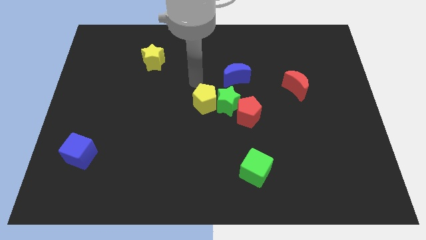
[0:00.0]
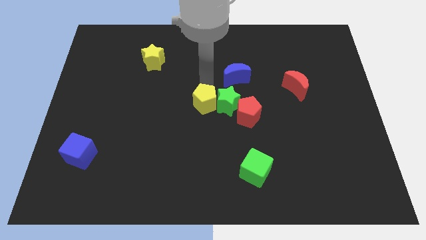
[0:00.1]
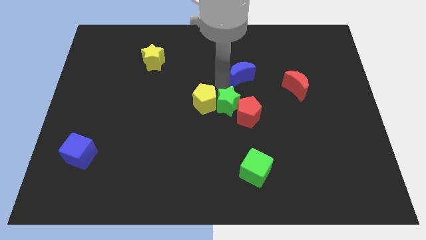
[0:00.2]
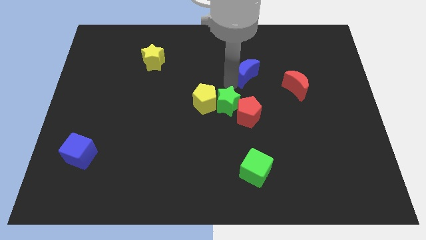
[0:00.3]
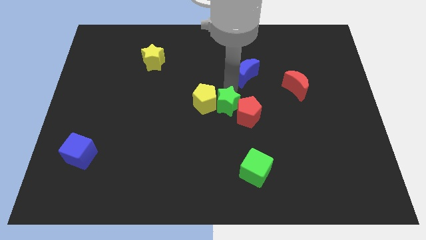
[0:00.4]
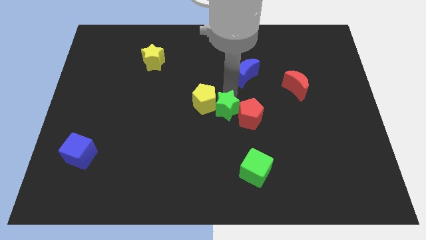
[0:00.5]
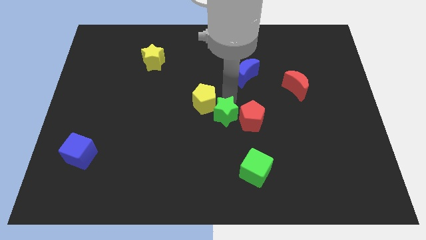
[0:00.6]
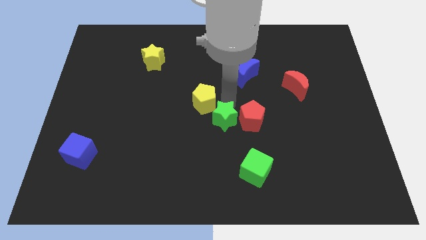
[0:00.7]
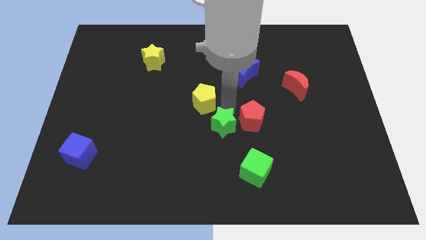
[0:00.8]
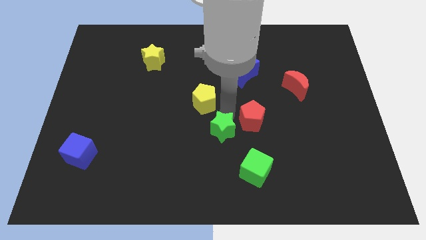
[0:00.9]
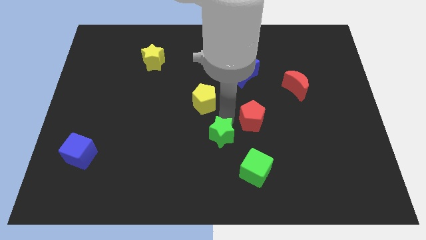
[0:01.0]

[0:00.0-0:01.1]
separate the green star from the group of blocks

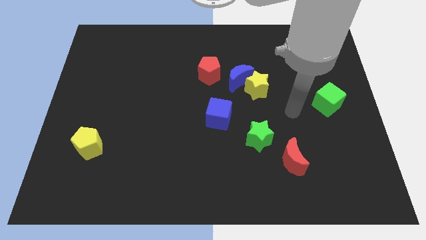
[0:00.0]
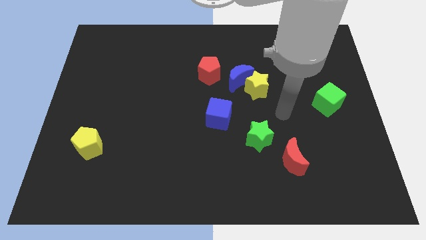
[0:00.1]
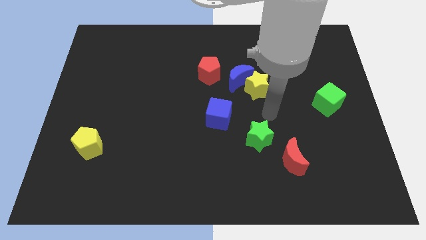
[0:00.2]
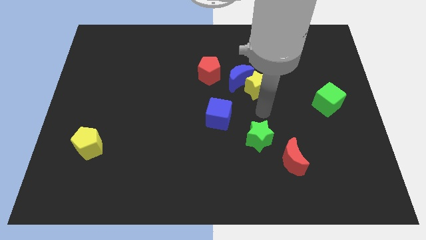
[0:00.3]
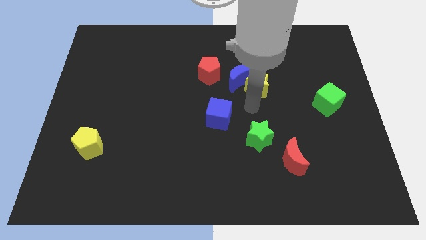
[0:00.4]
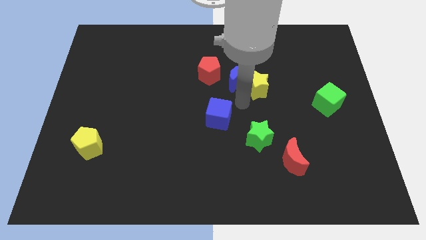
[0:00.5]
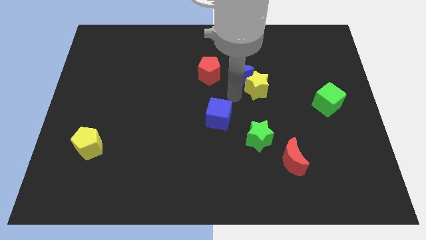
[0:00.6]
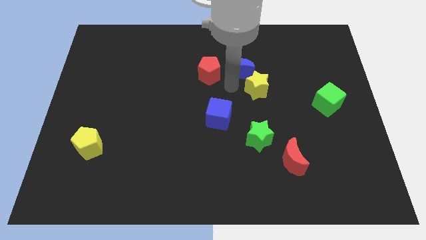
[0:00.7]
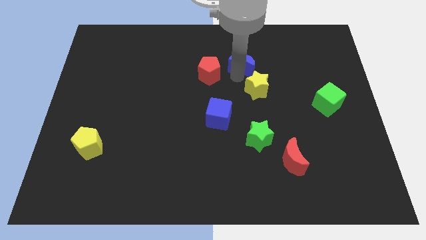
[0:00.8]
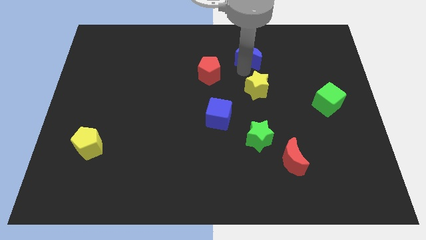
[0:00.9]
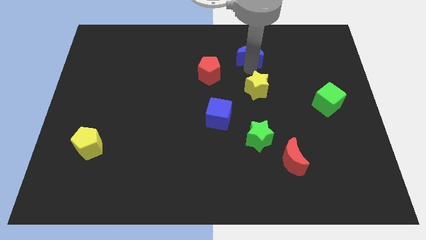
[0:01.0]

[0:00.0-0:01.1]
separate the yellow star from the blue moon

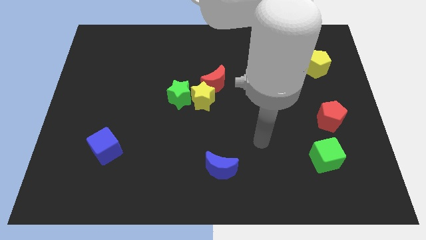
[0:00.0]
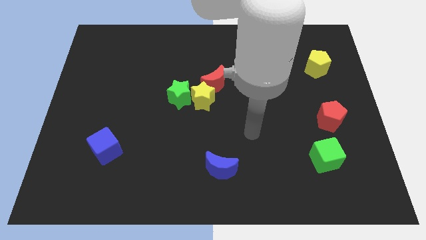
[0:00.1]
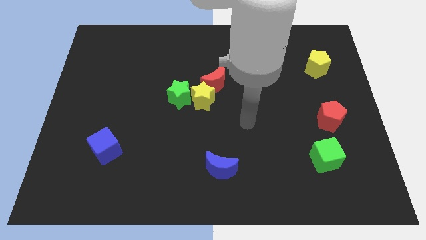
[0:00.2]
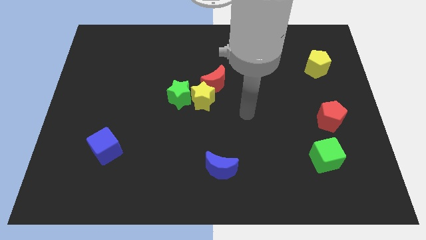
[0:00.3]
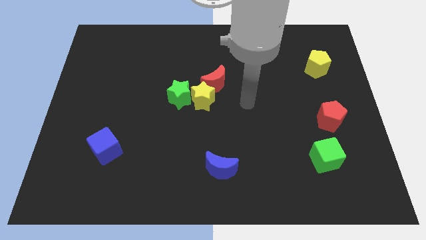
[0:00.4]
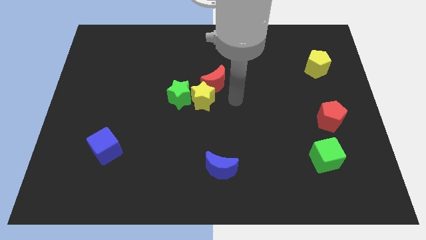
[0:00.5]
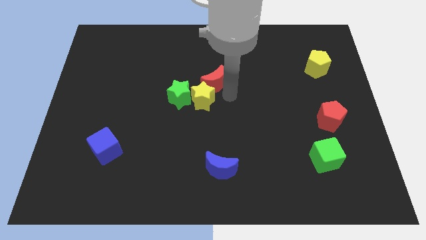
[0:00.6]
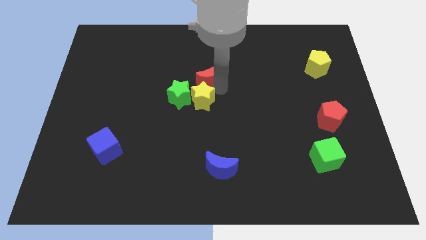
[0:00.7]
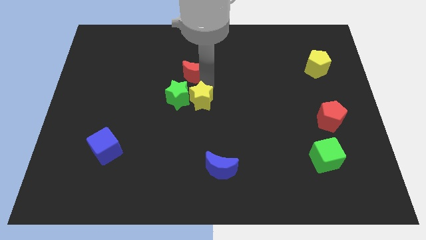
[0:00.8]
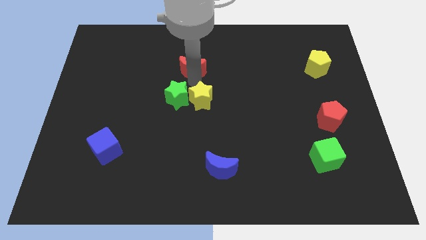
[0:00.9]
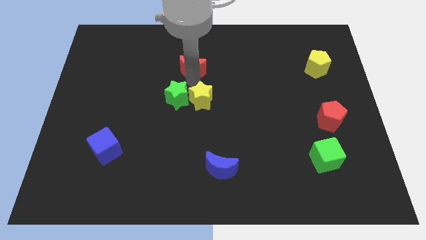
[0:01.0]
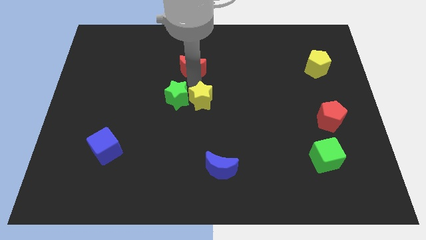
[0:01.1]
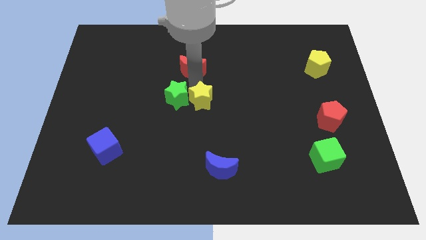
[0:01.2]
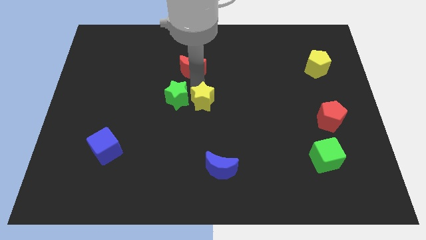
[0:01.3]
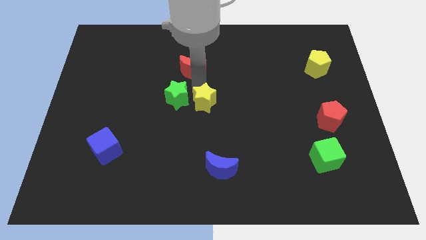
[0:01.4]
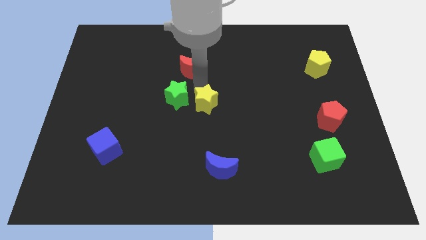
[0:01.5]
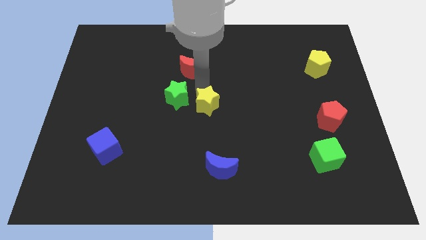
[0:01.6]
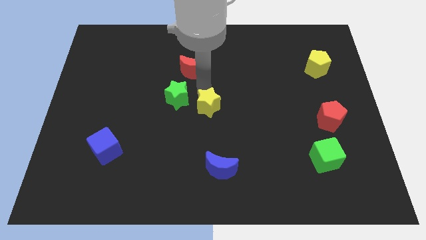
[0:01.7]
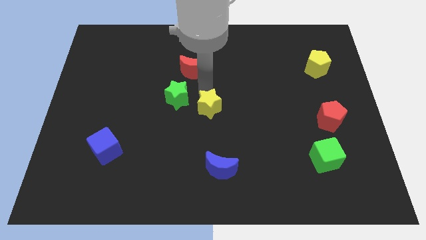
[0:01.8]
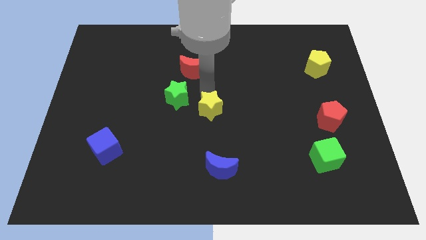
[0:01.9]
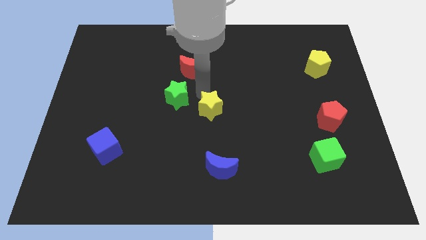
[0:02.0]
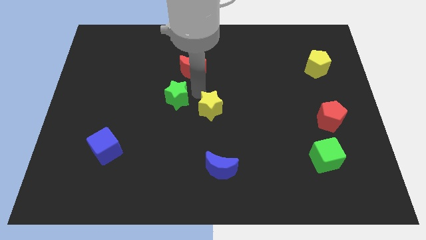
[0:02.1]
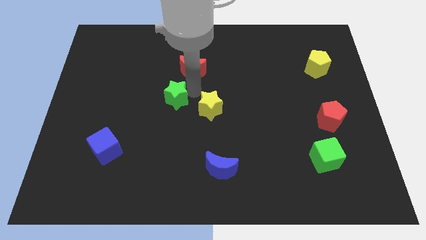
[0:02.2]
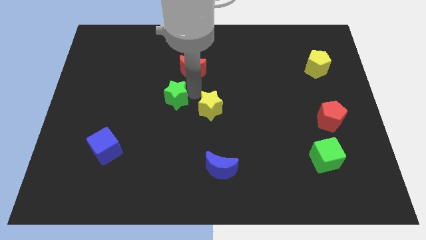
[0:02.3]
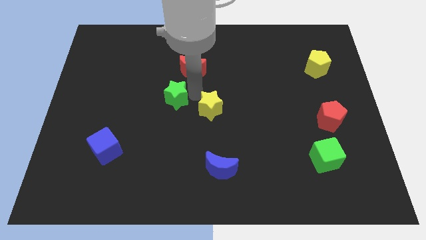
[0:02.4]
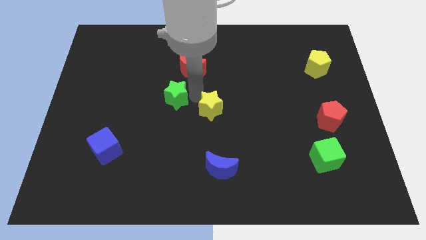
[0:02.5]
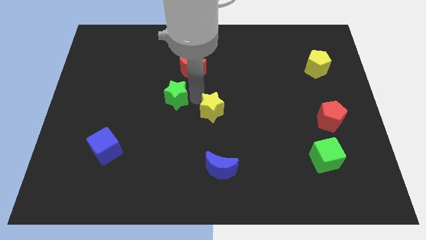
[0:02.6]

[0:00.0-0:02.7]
move the yellow star away from the green star and red moon

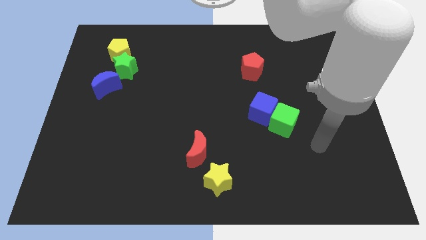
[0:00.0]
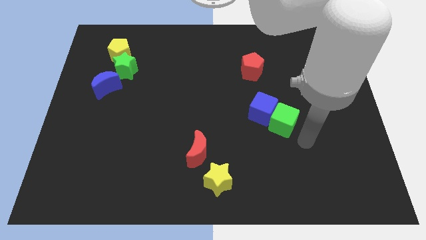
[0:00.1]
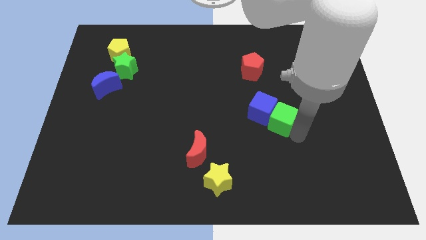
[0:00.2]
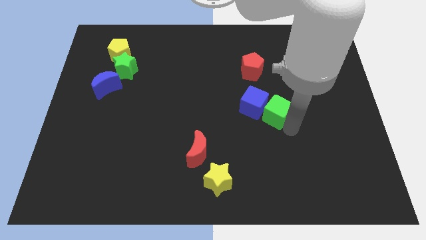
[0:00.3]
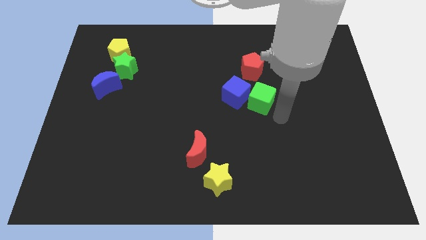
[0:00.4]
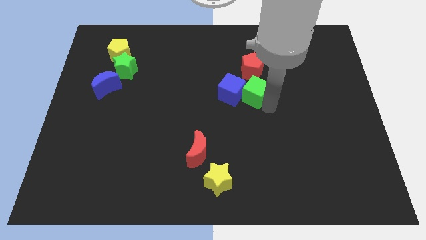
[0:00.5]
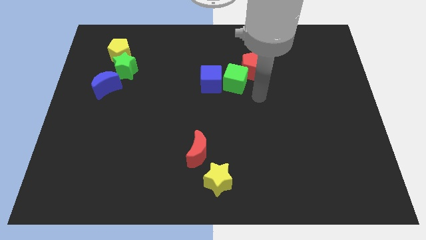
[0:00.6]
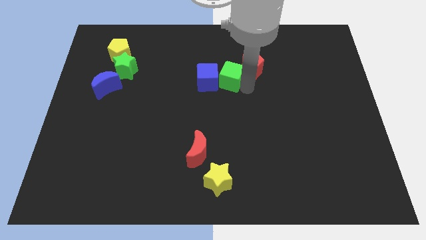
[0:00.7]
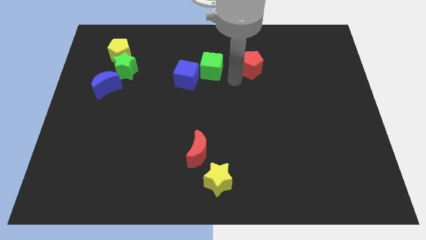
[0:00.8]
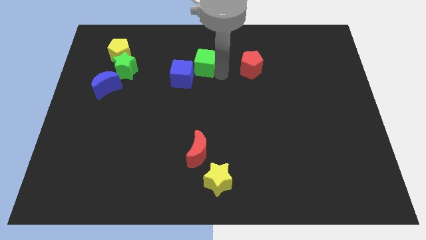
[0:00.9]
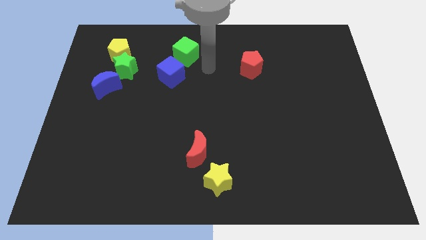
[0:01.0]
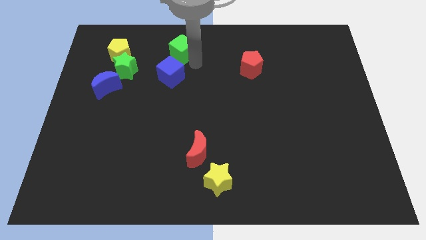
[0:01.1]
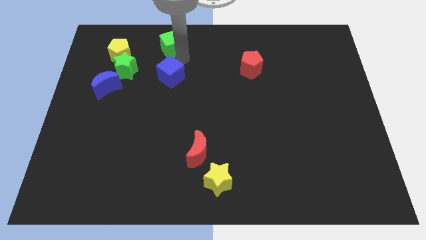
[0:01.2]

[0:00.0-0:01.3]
move the blue cube away from the green cube

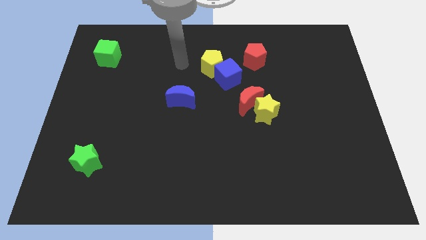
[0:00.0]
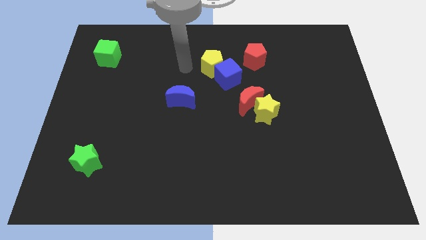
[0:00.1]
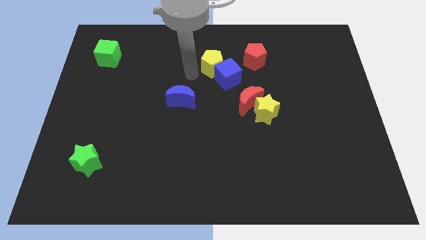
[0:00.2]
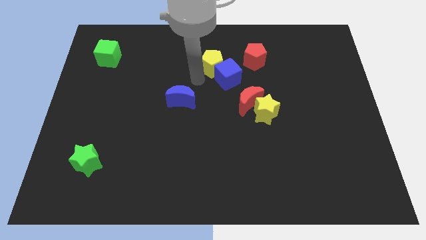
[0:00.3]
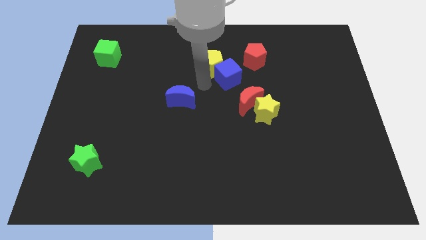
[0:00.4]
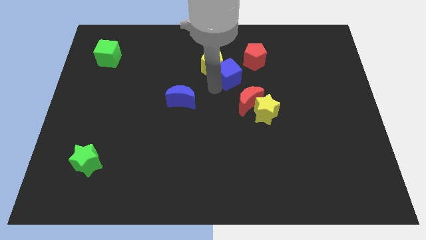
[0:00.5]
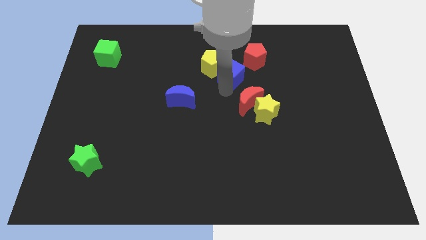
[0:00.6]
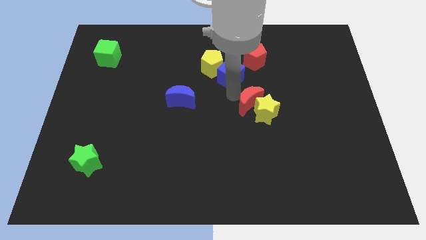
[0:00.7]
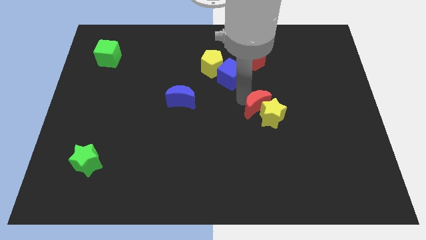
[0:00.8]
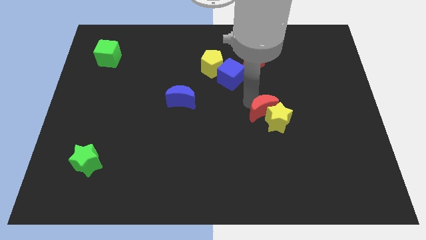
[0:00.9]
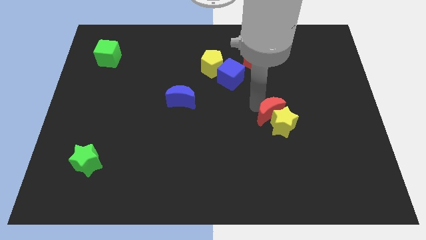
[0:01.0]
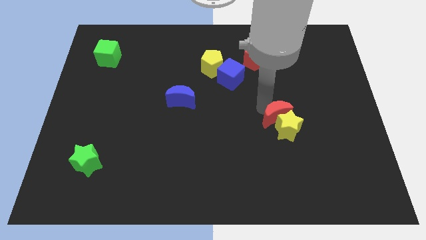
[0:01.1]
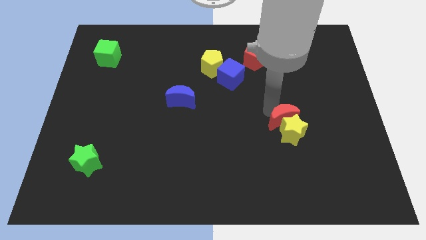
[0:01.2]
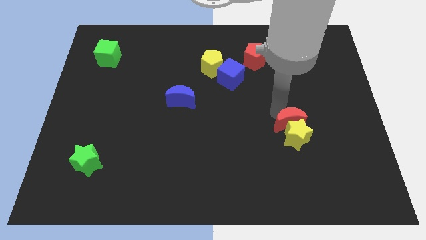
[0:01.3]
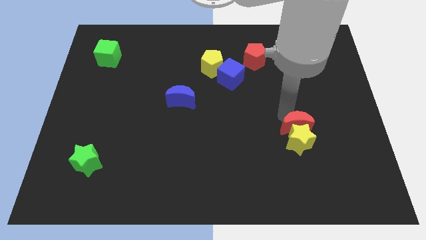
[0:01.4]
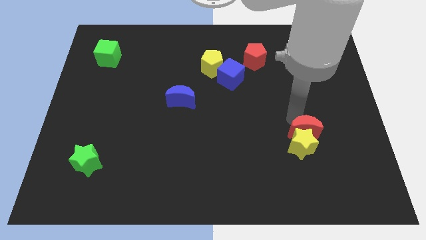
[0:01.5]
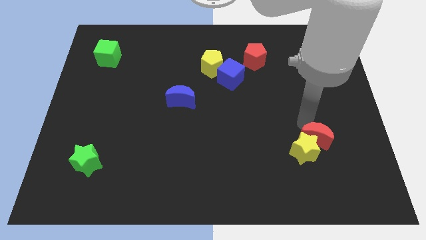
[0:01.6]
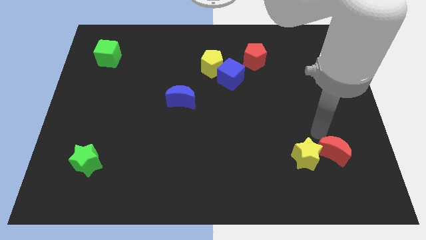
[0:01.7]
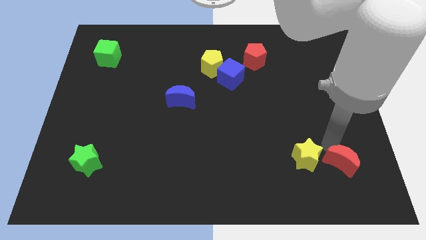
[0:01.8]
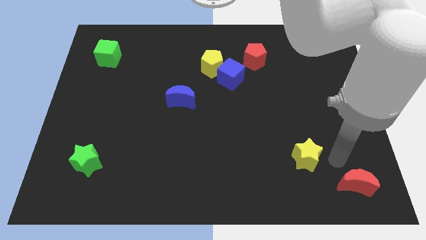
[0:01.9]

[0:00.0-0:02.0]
separate the yellow star from the red moon

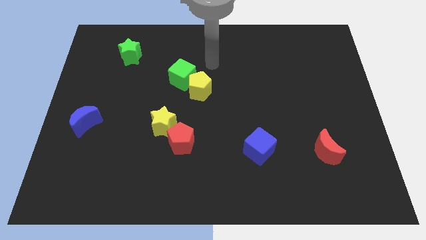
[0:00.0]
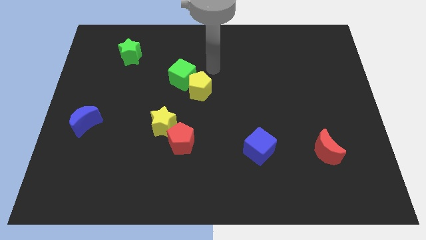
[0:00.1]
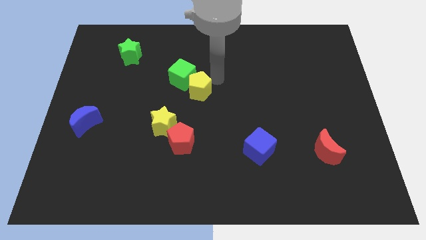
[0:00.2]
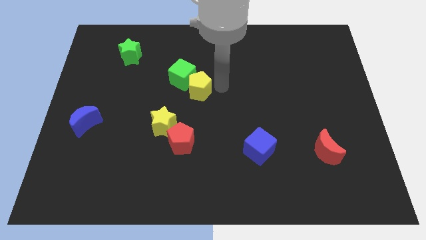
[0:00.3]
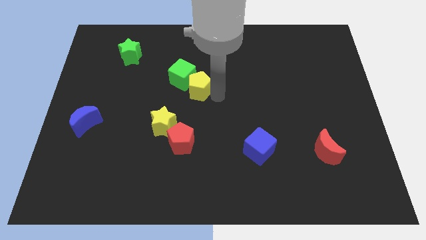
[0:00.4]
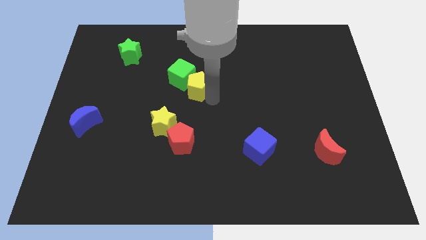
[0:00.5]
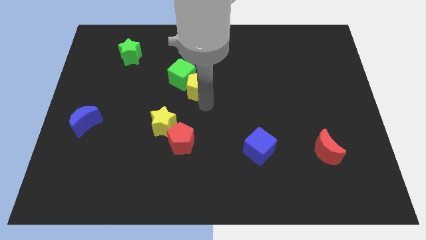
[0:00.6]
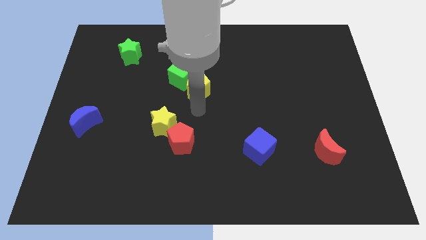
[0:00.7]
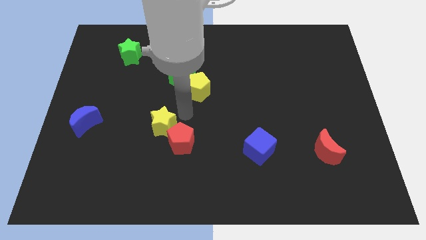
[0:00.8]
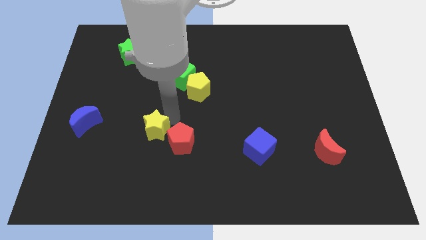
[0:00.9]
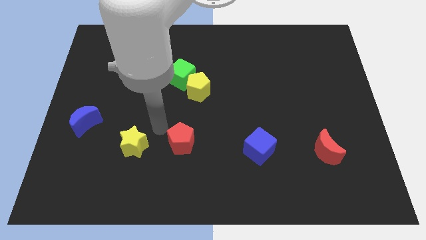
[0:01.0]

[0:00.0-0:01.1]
move the red pentagon away from the yellow star

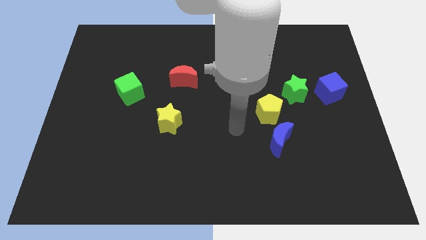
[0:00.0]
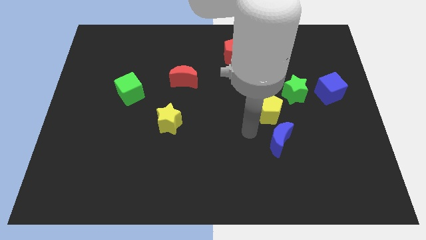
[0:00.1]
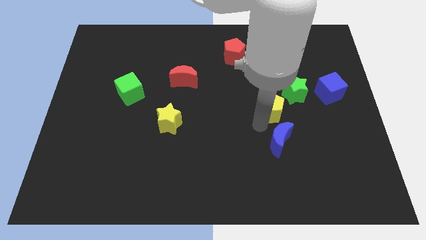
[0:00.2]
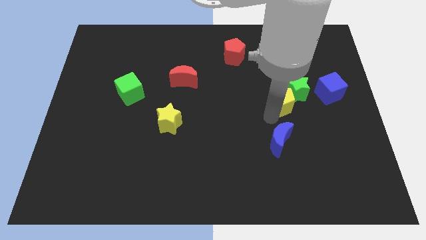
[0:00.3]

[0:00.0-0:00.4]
pull the blue moon apart from the yellow pentagon
